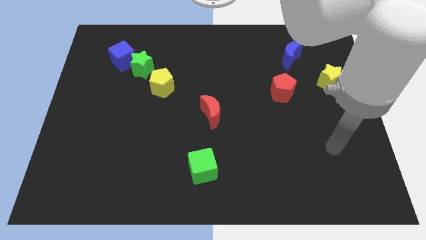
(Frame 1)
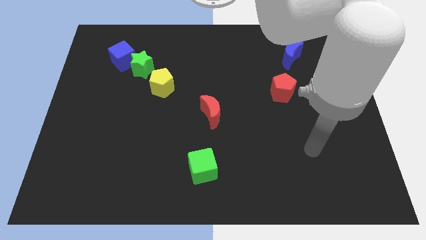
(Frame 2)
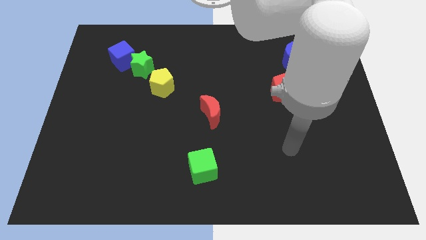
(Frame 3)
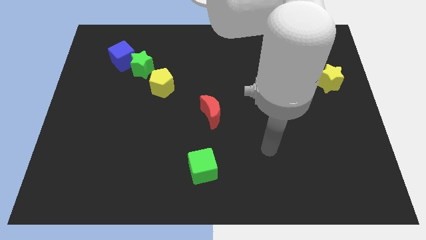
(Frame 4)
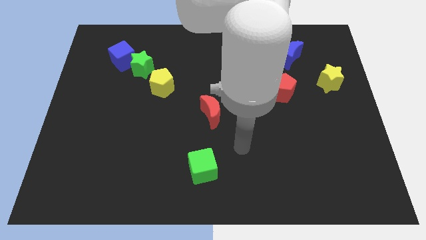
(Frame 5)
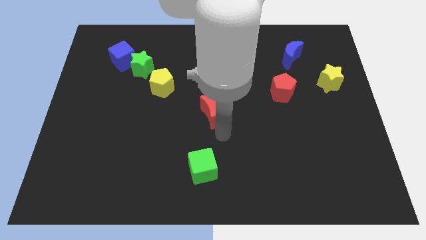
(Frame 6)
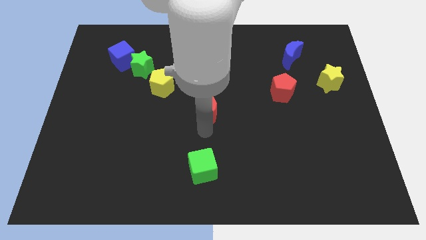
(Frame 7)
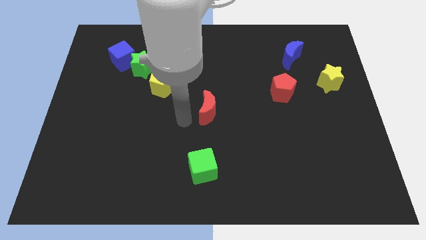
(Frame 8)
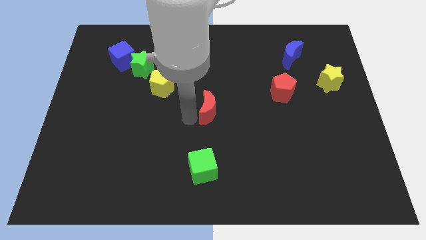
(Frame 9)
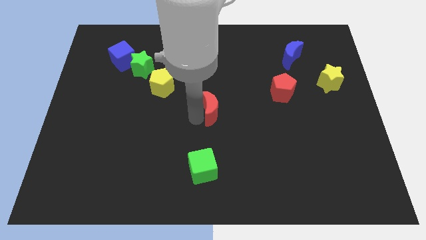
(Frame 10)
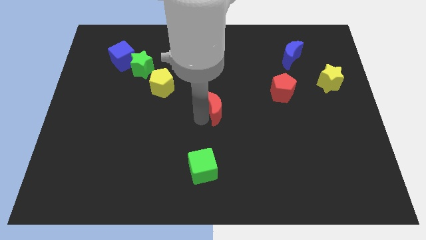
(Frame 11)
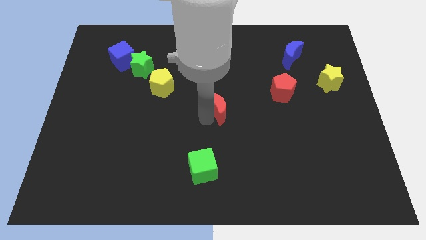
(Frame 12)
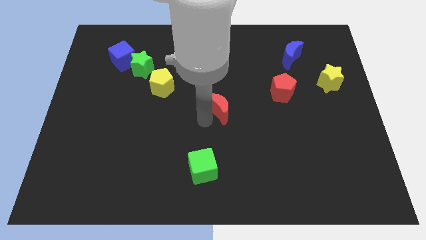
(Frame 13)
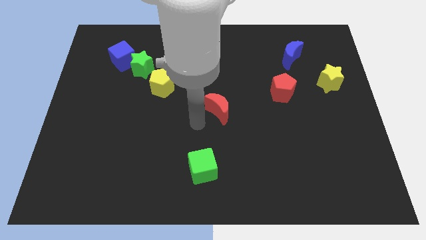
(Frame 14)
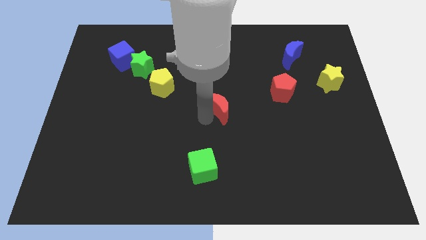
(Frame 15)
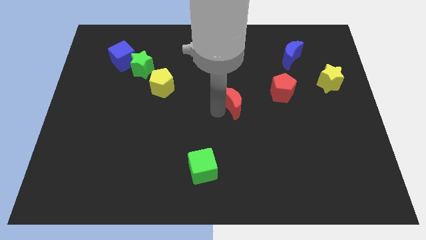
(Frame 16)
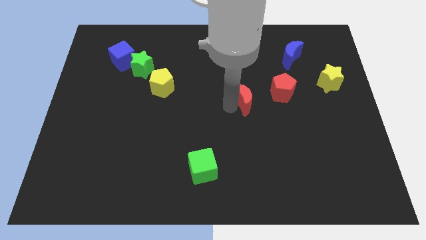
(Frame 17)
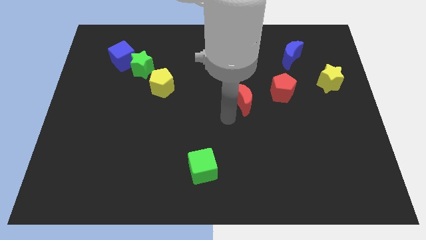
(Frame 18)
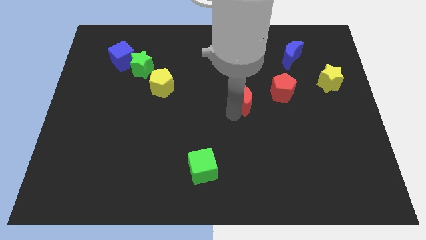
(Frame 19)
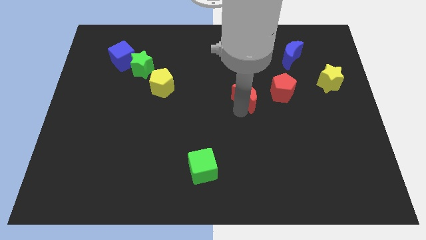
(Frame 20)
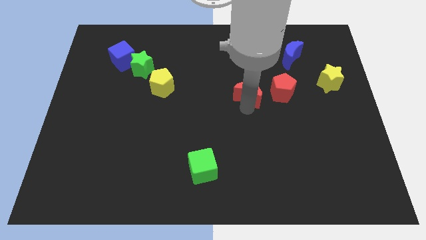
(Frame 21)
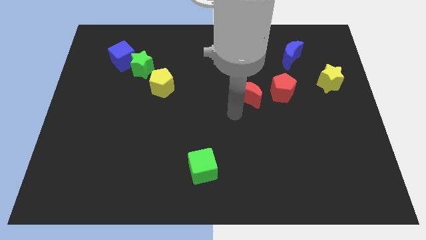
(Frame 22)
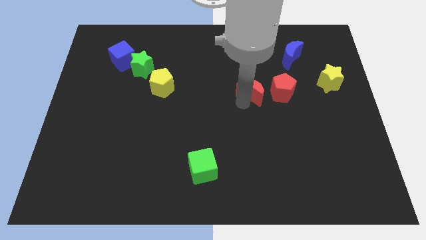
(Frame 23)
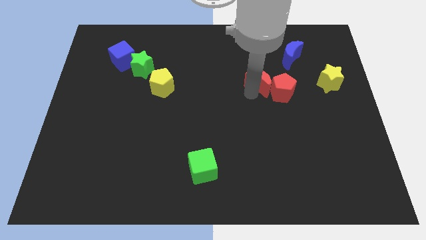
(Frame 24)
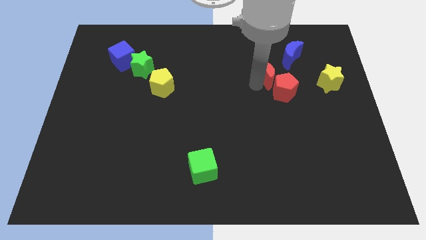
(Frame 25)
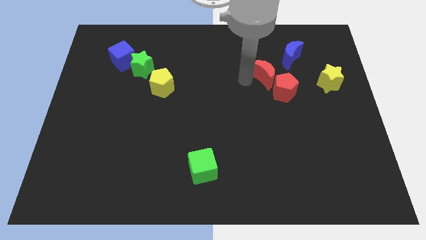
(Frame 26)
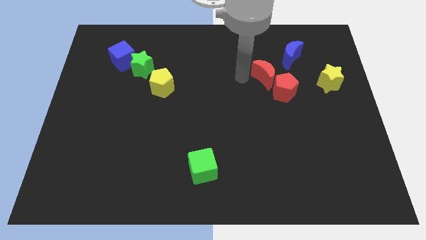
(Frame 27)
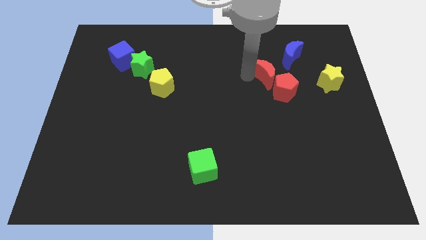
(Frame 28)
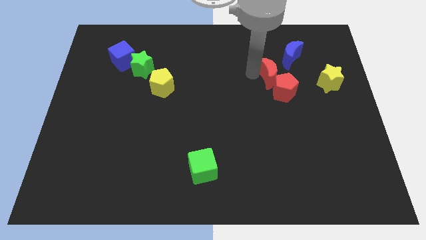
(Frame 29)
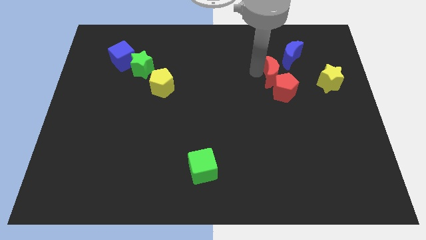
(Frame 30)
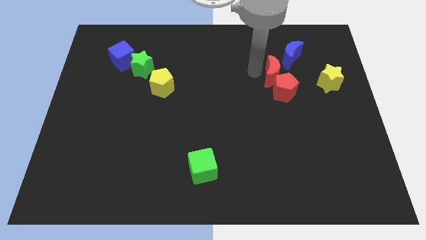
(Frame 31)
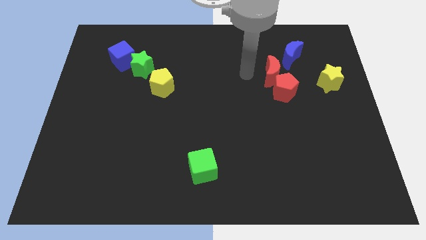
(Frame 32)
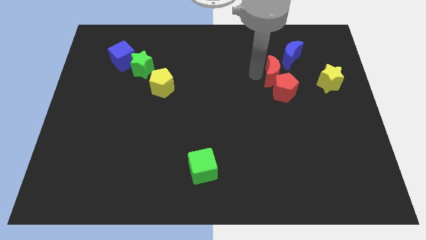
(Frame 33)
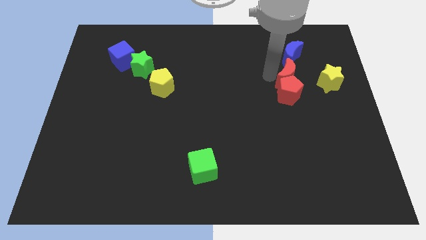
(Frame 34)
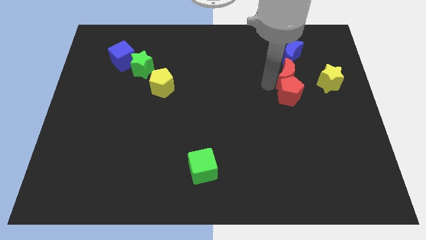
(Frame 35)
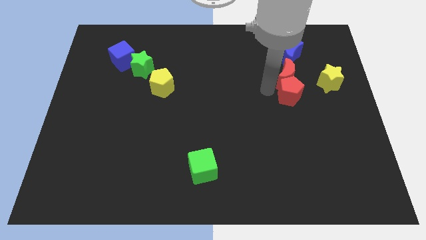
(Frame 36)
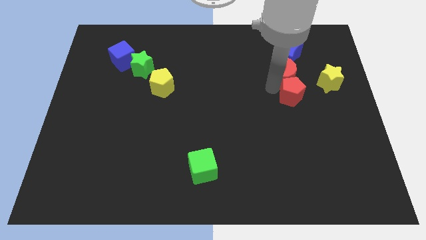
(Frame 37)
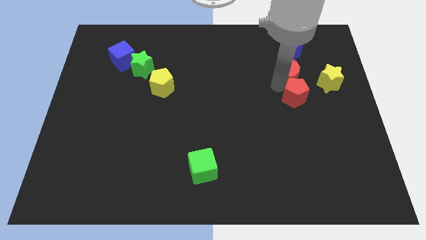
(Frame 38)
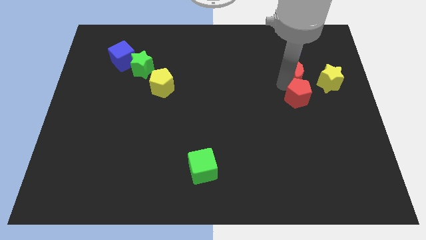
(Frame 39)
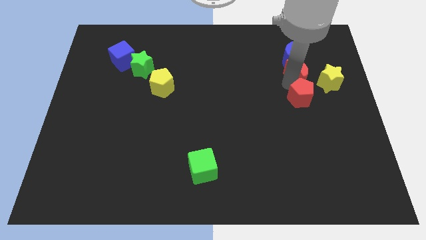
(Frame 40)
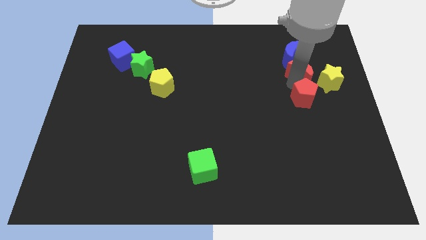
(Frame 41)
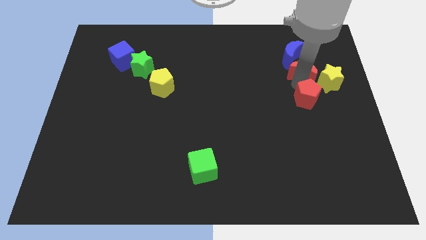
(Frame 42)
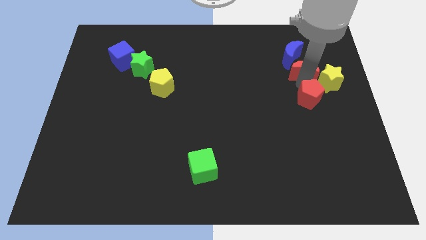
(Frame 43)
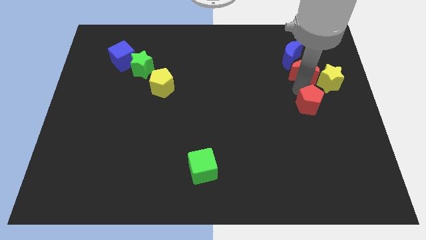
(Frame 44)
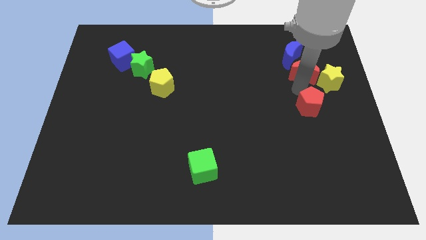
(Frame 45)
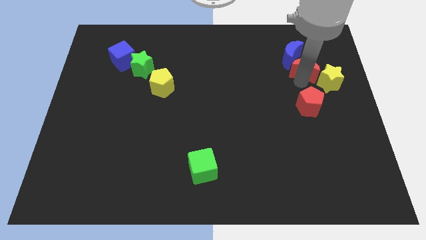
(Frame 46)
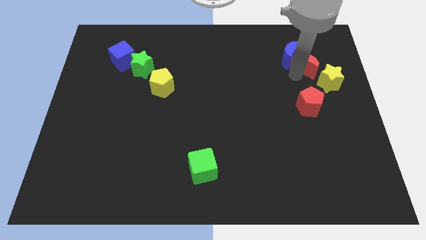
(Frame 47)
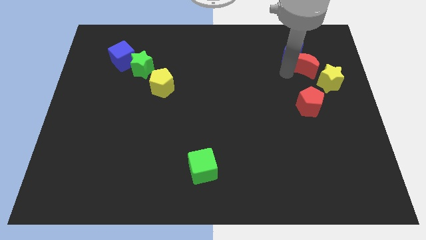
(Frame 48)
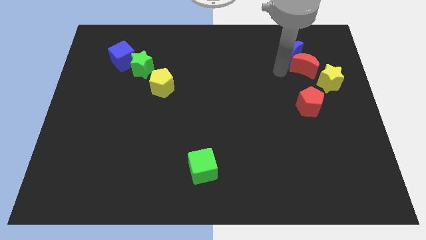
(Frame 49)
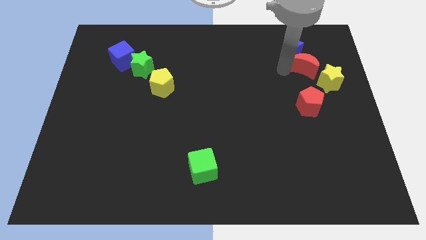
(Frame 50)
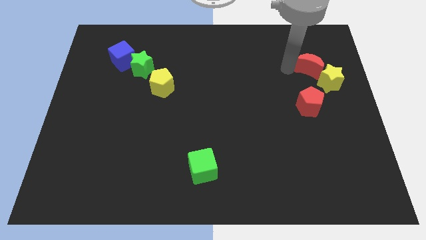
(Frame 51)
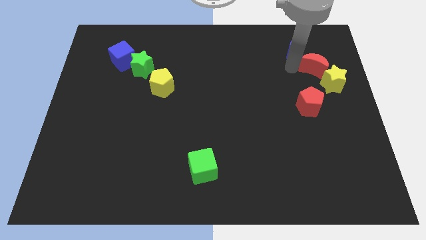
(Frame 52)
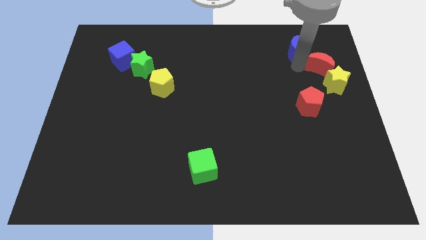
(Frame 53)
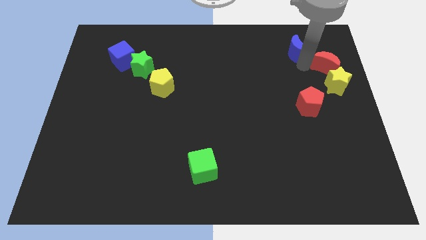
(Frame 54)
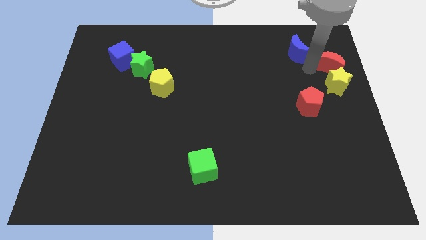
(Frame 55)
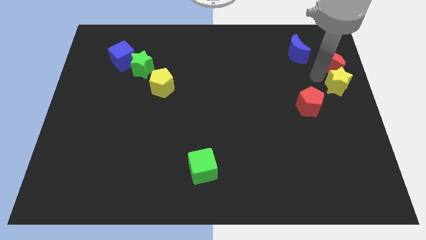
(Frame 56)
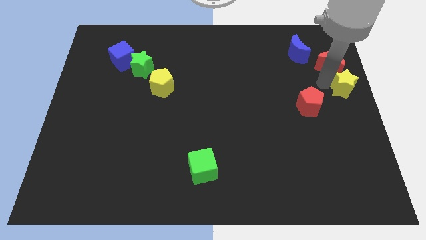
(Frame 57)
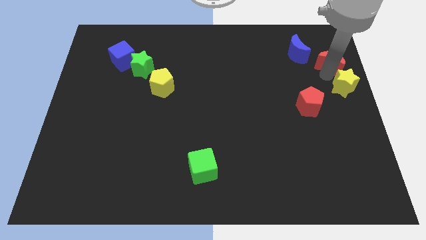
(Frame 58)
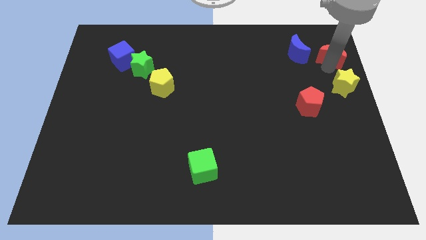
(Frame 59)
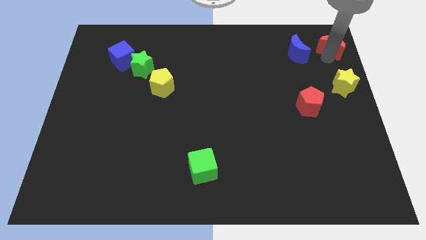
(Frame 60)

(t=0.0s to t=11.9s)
move the red moon to the top right corner
